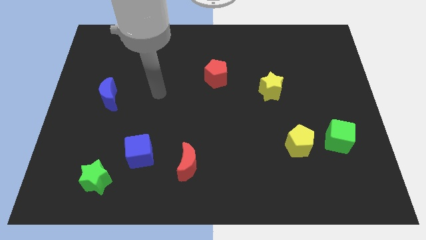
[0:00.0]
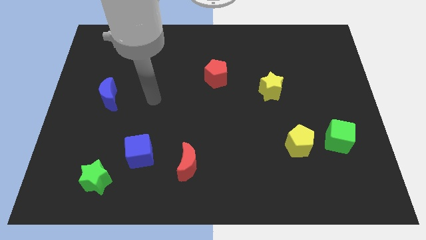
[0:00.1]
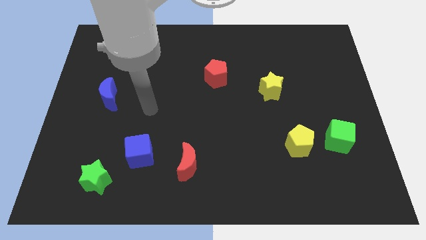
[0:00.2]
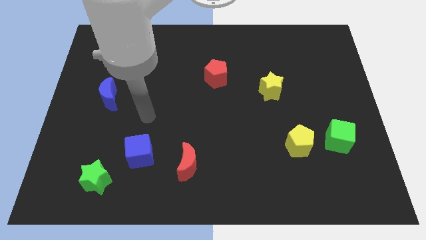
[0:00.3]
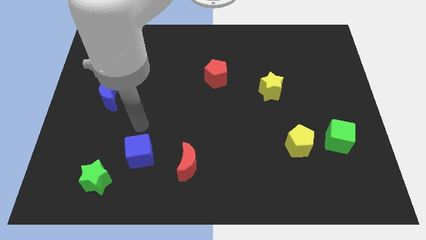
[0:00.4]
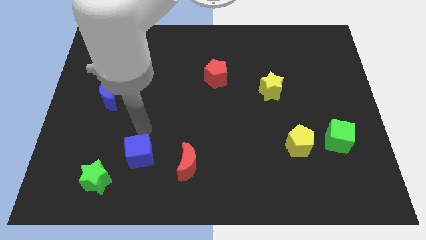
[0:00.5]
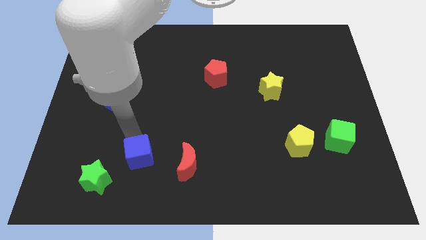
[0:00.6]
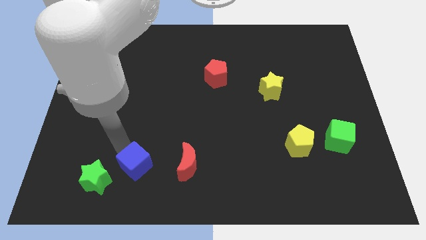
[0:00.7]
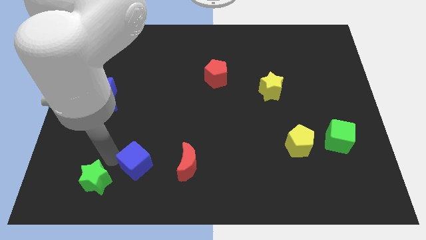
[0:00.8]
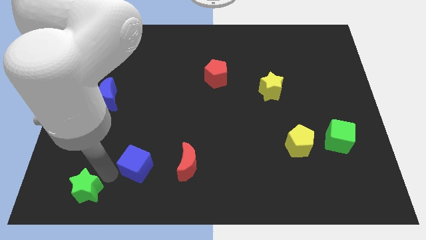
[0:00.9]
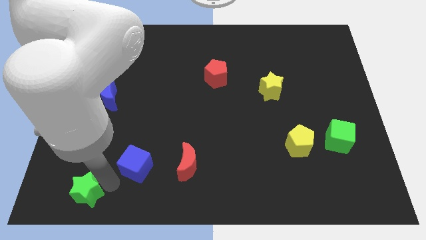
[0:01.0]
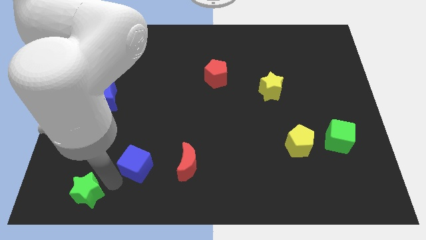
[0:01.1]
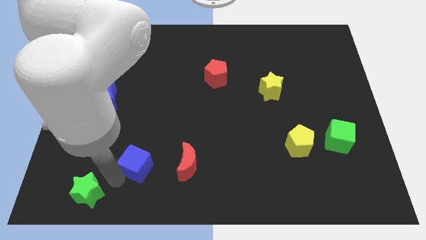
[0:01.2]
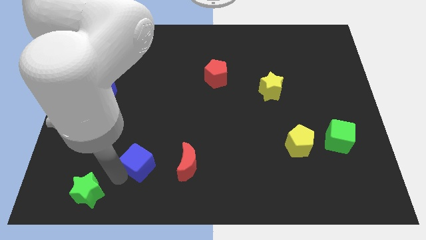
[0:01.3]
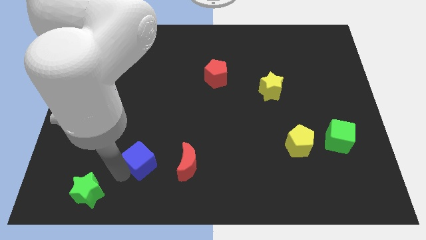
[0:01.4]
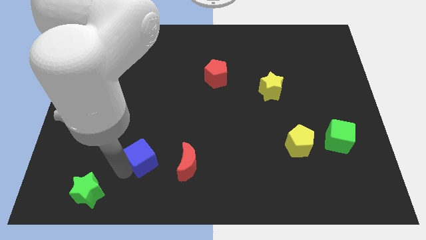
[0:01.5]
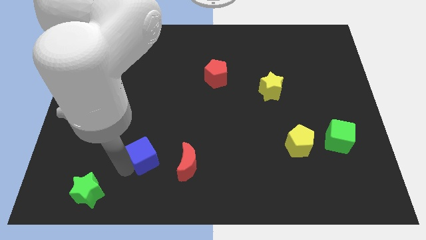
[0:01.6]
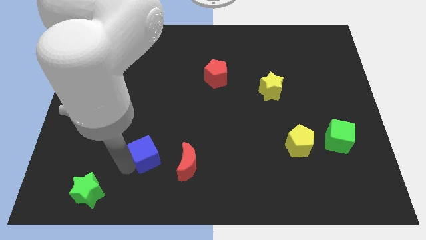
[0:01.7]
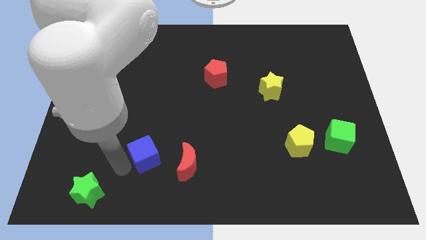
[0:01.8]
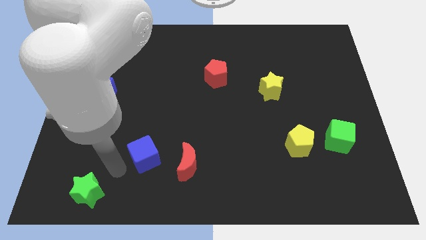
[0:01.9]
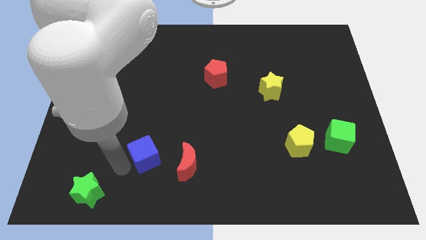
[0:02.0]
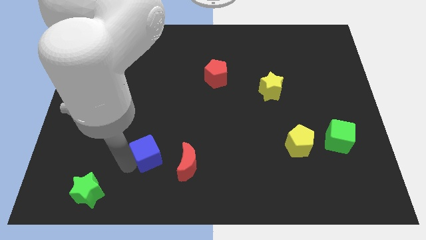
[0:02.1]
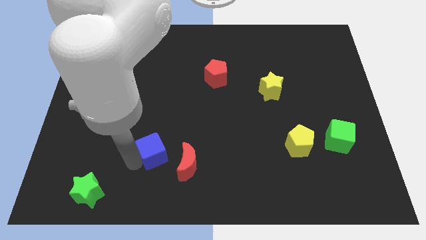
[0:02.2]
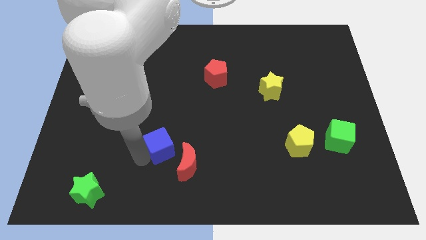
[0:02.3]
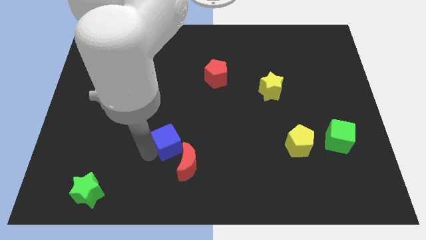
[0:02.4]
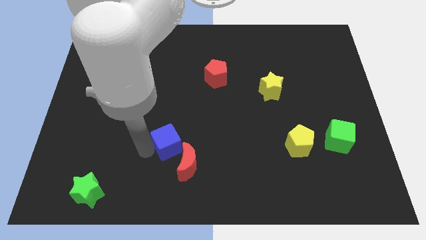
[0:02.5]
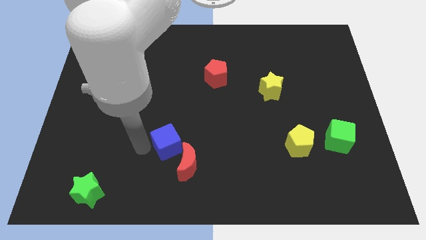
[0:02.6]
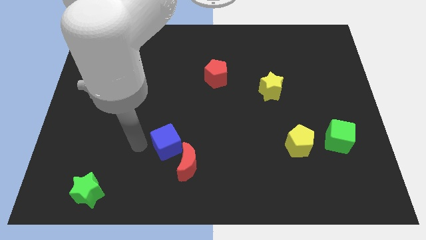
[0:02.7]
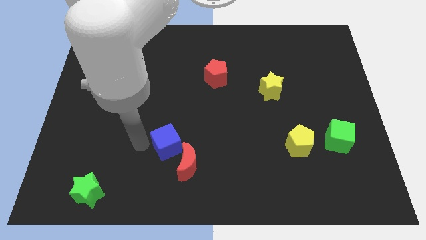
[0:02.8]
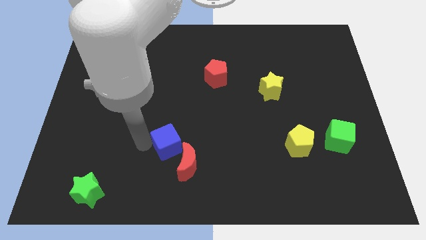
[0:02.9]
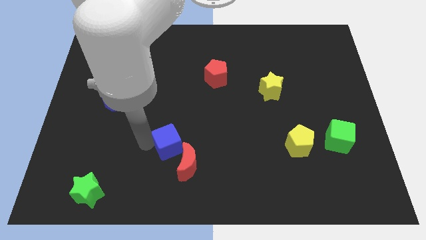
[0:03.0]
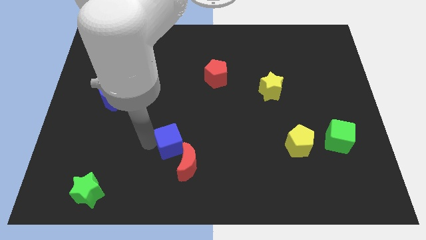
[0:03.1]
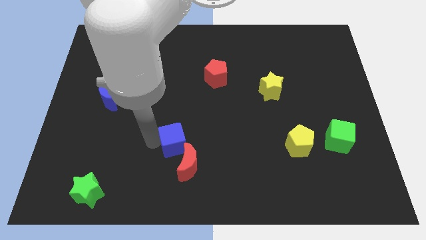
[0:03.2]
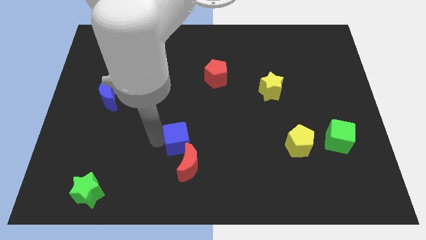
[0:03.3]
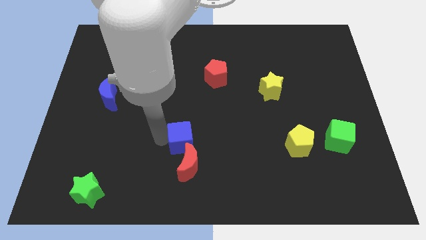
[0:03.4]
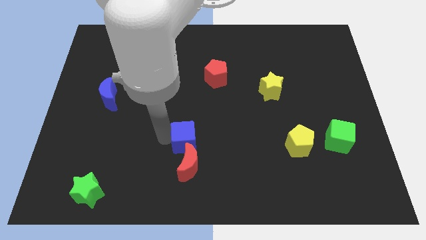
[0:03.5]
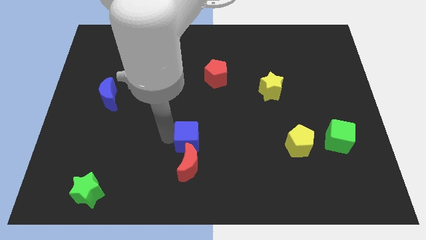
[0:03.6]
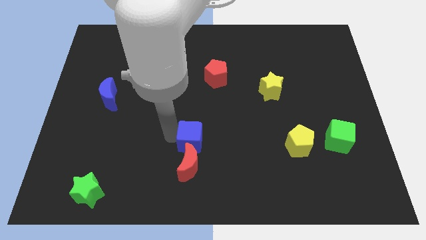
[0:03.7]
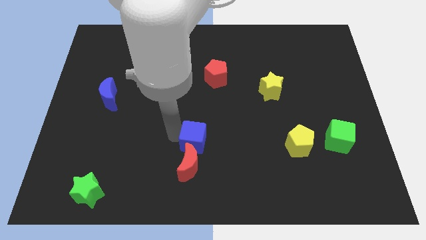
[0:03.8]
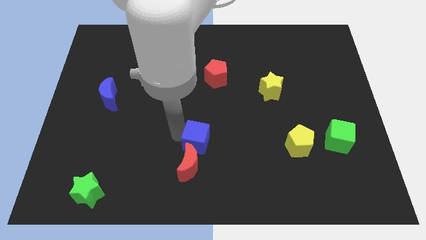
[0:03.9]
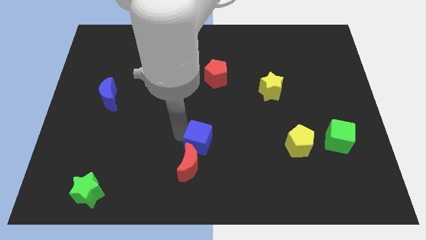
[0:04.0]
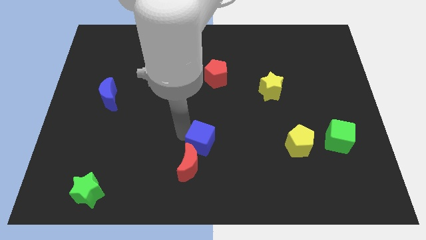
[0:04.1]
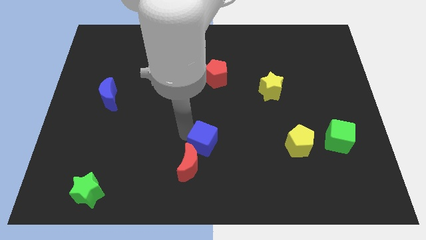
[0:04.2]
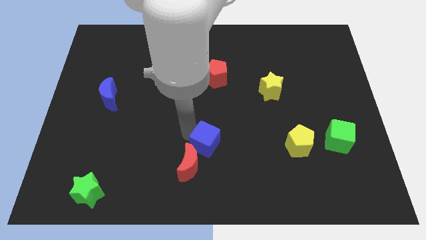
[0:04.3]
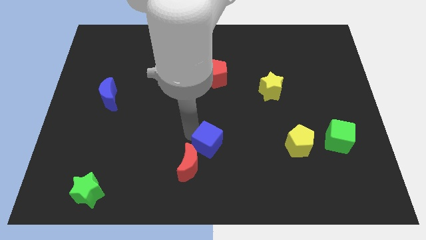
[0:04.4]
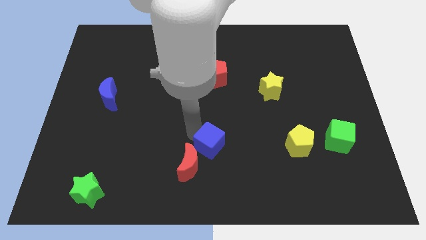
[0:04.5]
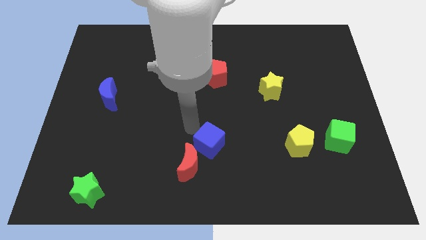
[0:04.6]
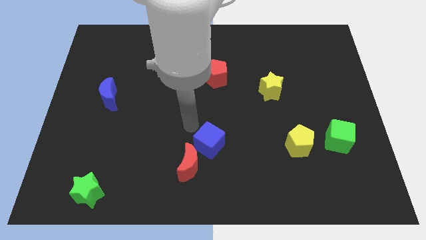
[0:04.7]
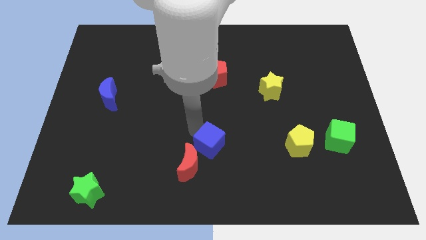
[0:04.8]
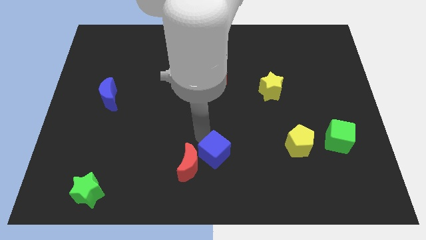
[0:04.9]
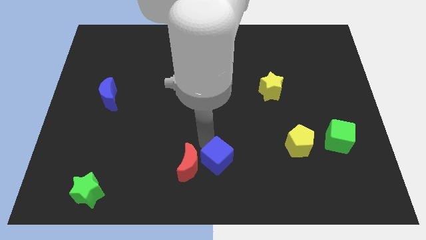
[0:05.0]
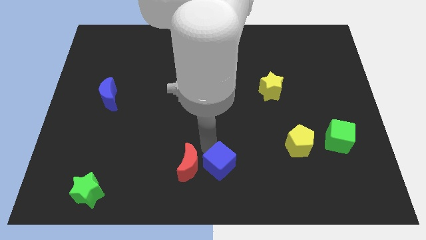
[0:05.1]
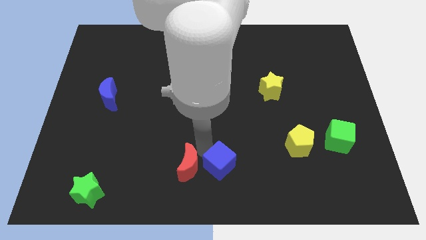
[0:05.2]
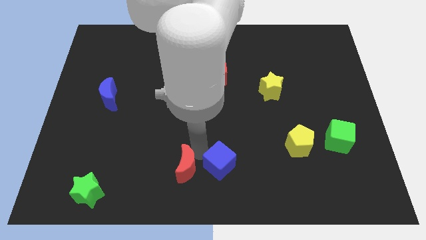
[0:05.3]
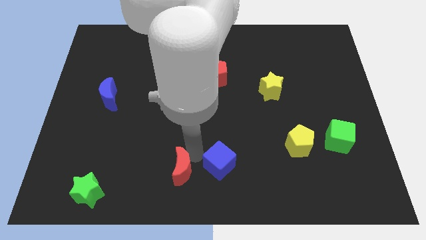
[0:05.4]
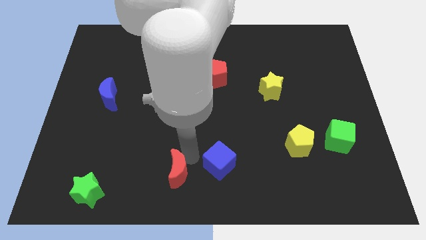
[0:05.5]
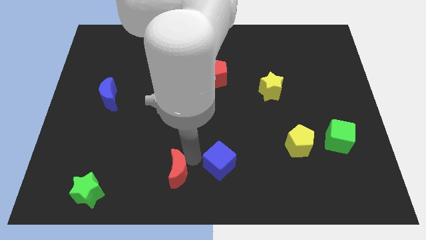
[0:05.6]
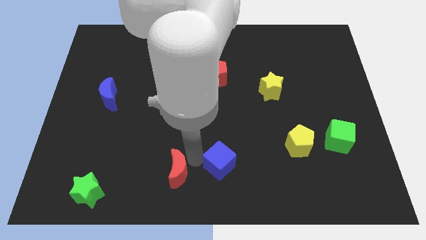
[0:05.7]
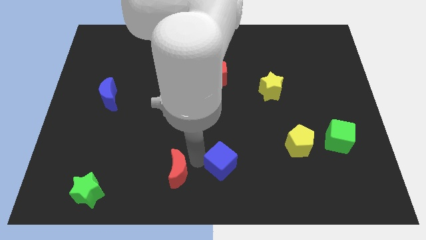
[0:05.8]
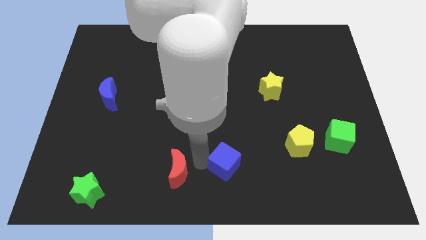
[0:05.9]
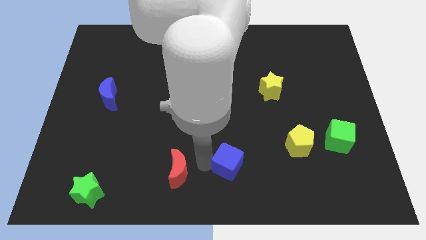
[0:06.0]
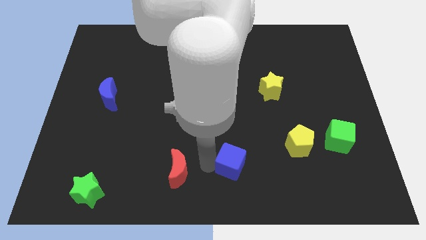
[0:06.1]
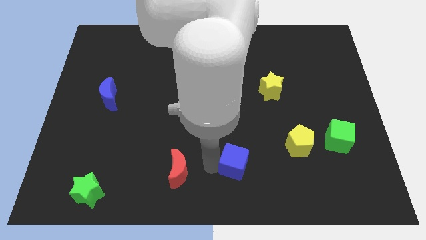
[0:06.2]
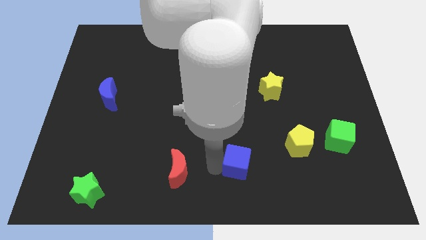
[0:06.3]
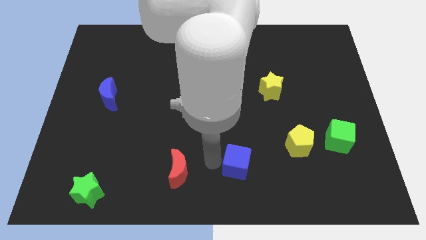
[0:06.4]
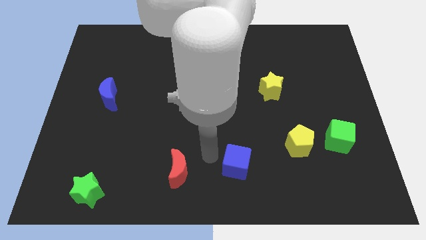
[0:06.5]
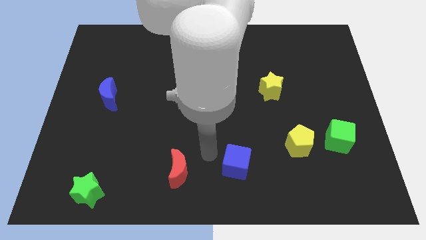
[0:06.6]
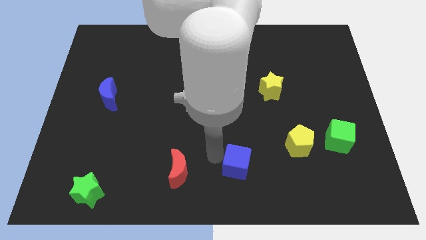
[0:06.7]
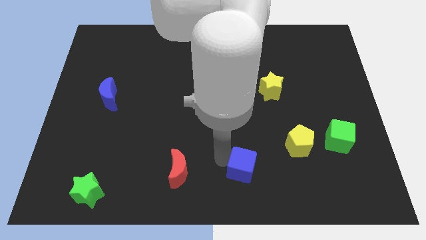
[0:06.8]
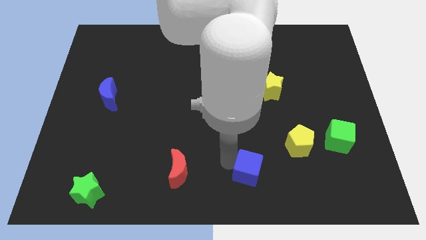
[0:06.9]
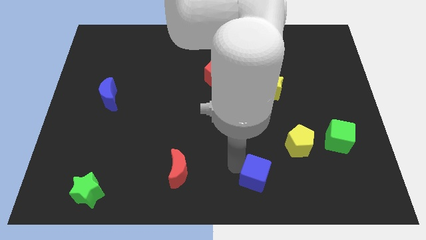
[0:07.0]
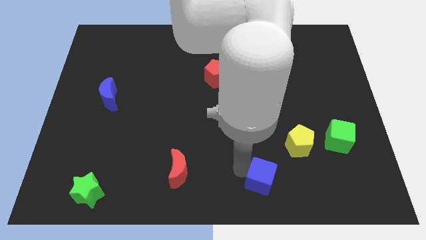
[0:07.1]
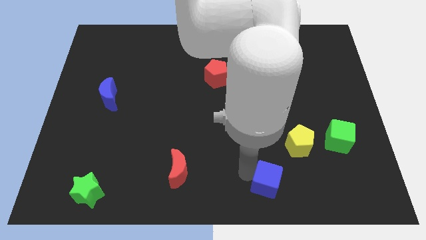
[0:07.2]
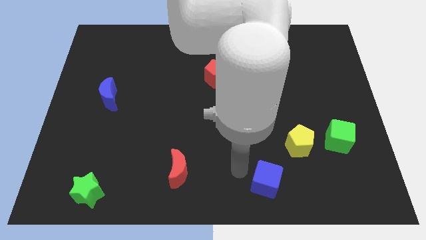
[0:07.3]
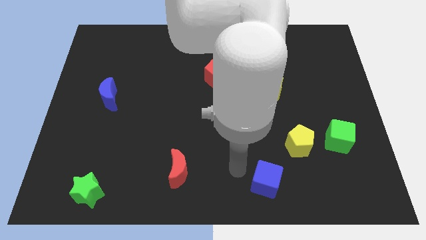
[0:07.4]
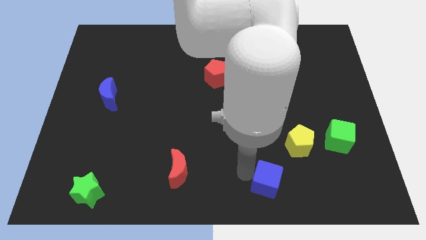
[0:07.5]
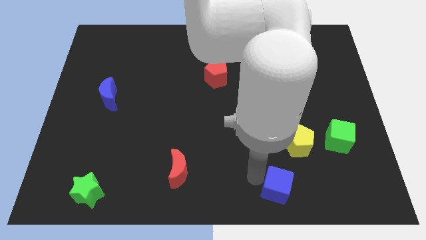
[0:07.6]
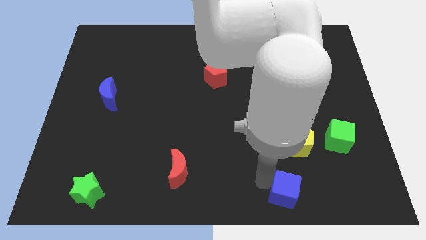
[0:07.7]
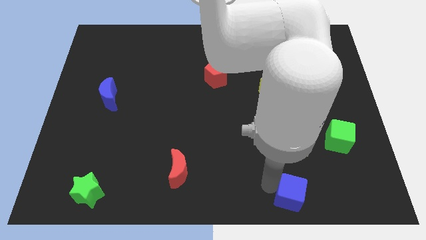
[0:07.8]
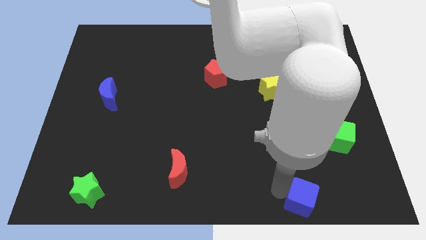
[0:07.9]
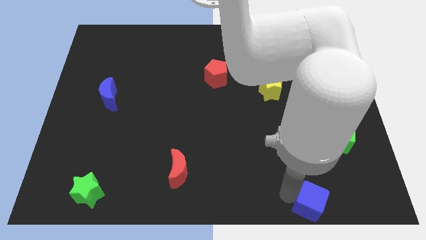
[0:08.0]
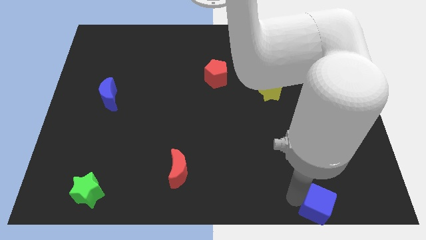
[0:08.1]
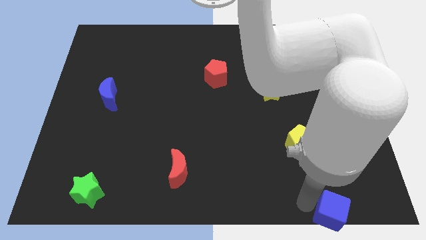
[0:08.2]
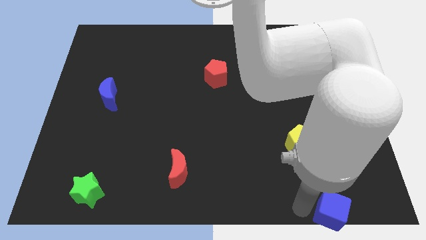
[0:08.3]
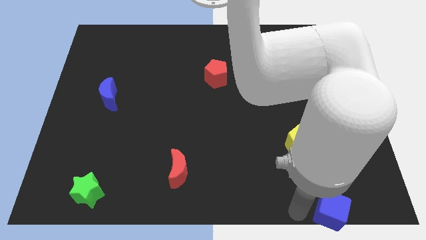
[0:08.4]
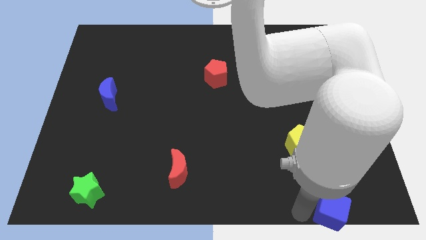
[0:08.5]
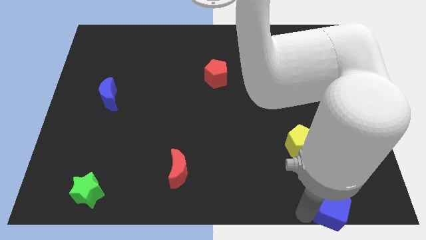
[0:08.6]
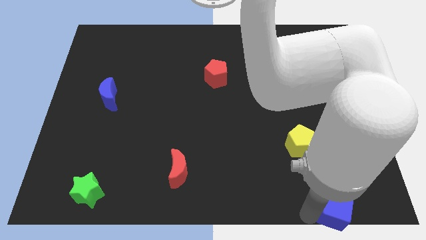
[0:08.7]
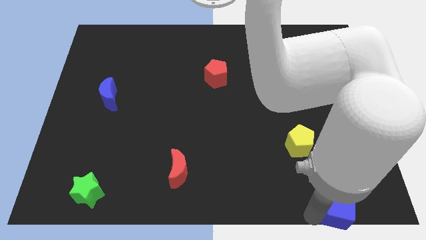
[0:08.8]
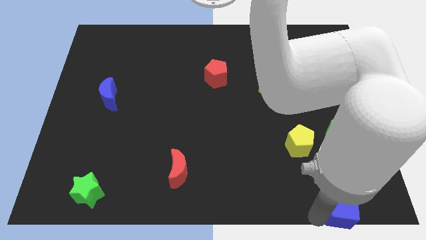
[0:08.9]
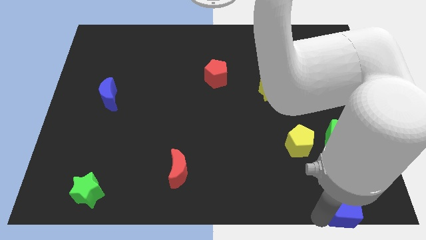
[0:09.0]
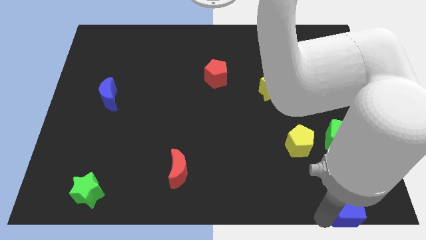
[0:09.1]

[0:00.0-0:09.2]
move the blue cube to the lower right corner
